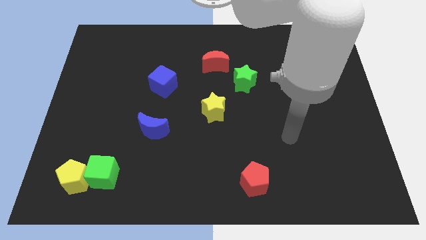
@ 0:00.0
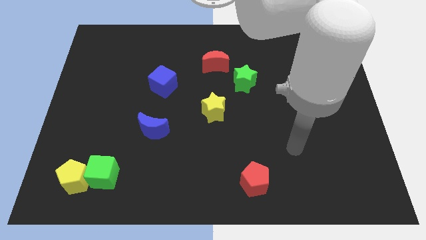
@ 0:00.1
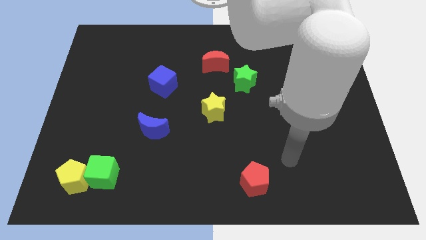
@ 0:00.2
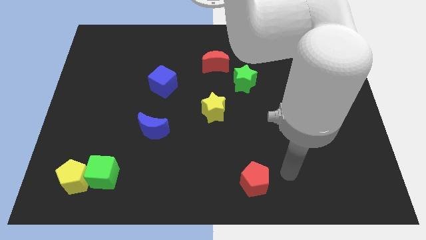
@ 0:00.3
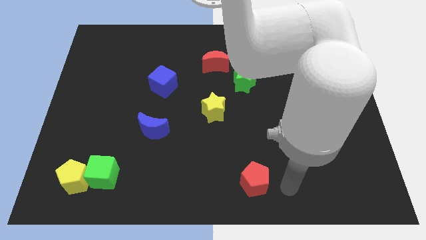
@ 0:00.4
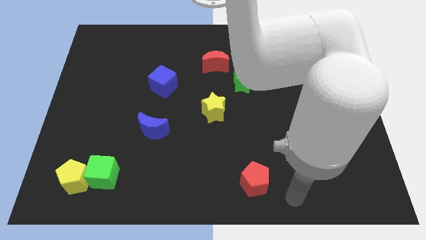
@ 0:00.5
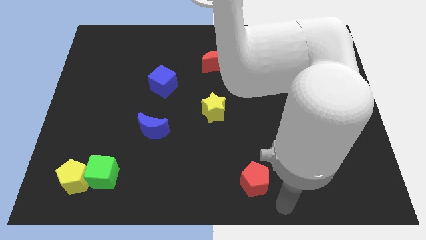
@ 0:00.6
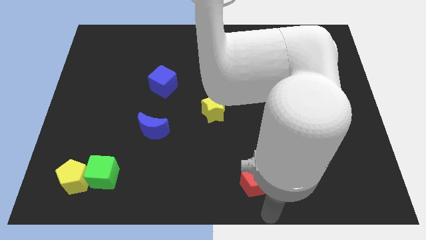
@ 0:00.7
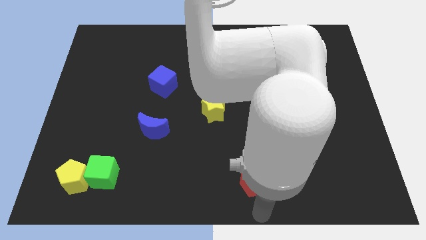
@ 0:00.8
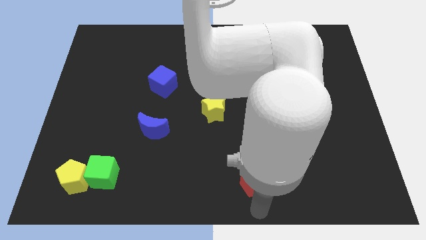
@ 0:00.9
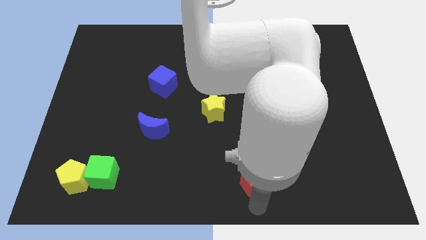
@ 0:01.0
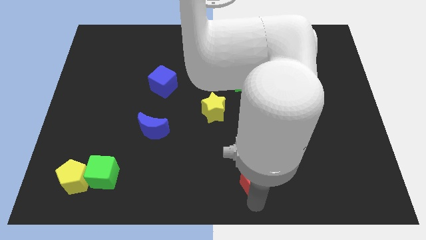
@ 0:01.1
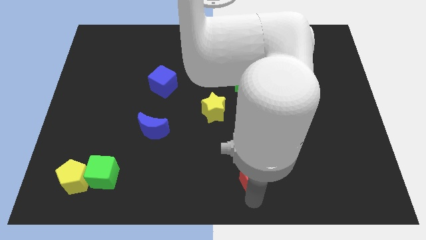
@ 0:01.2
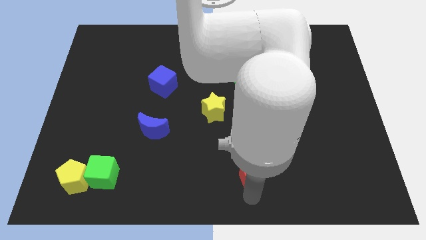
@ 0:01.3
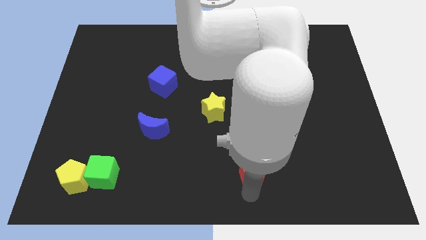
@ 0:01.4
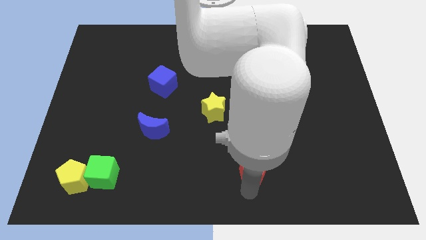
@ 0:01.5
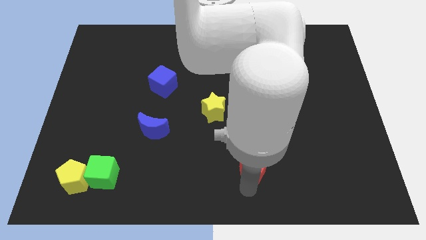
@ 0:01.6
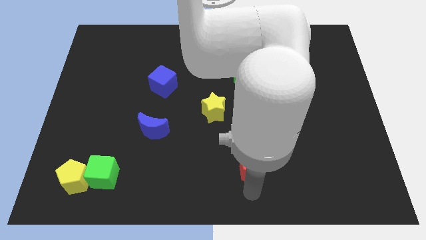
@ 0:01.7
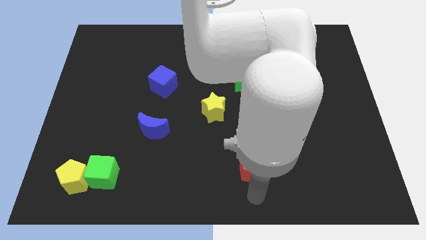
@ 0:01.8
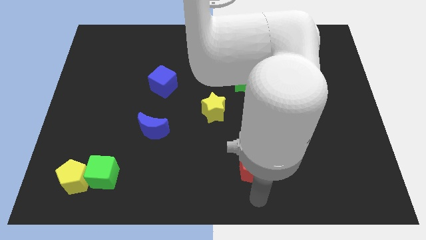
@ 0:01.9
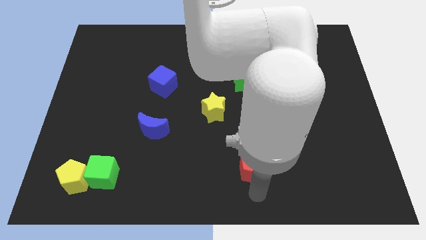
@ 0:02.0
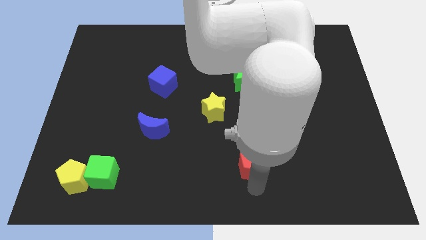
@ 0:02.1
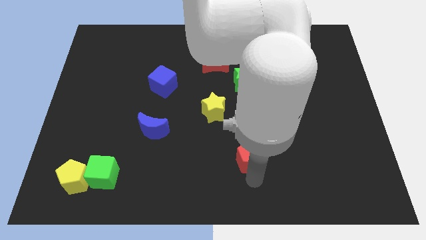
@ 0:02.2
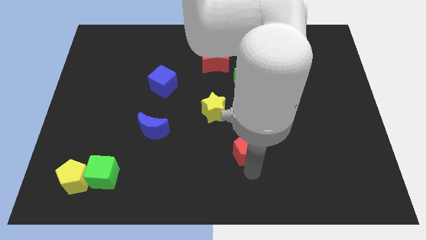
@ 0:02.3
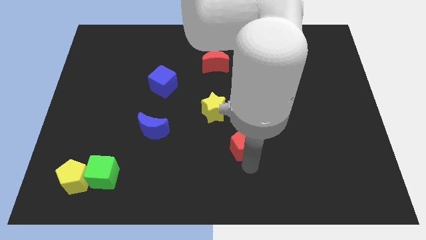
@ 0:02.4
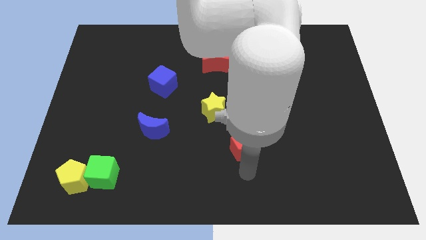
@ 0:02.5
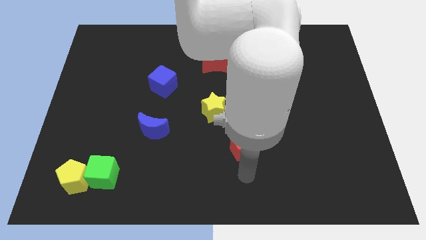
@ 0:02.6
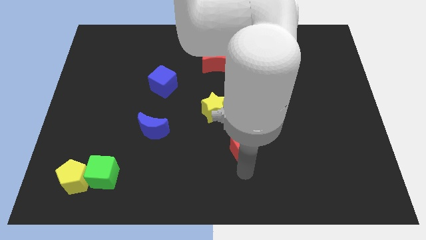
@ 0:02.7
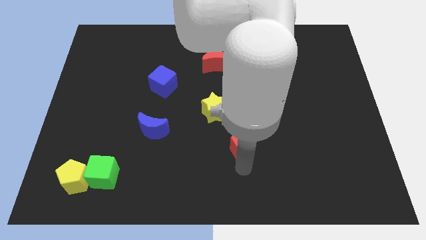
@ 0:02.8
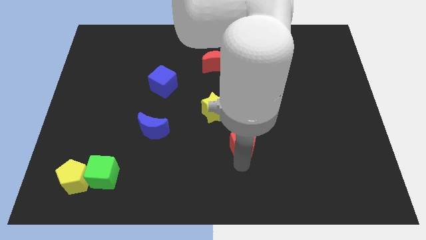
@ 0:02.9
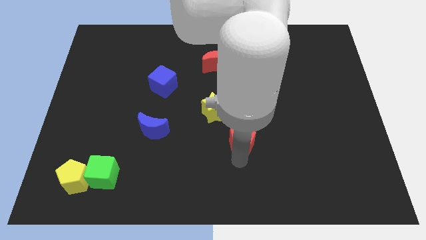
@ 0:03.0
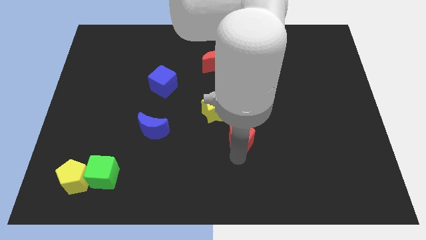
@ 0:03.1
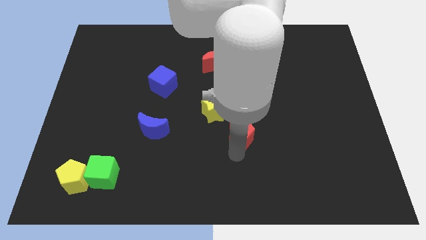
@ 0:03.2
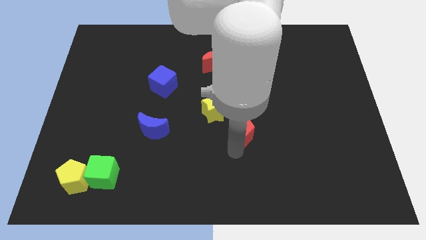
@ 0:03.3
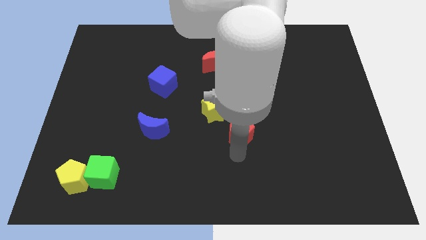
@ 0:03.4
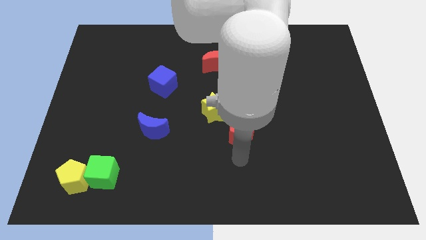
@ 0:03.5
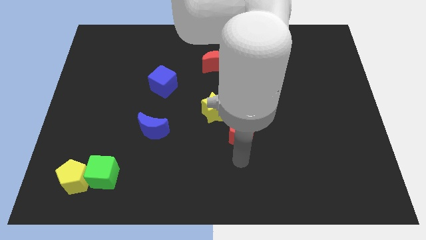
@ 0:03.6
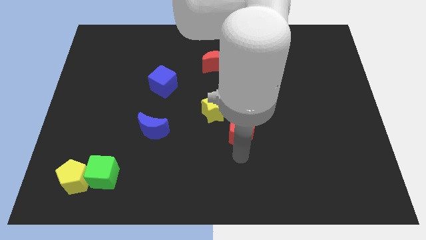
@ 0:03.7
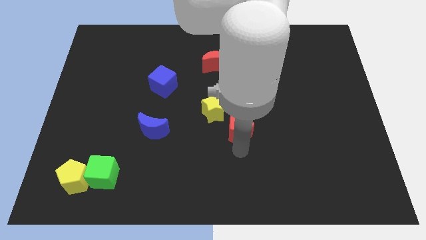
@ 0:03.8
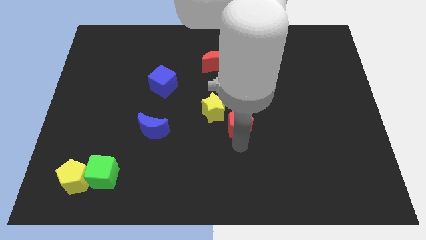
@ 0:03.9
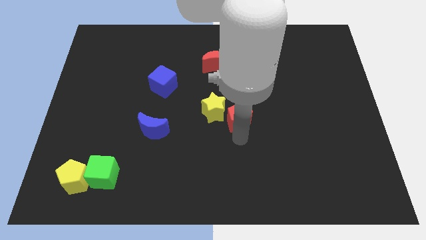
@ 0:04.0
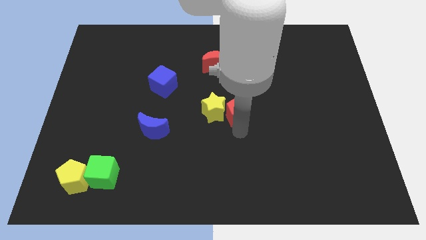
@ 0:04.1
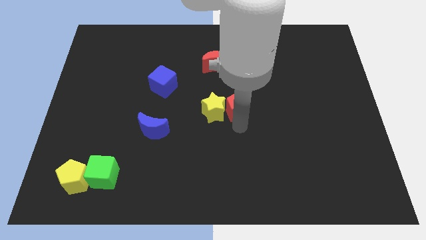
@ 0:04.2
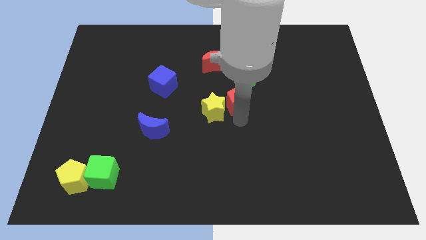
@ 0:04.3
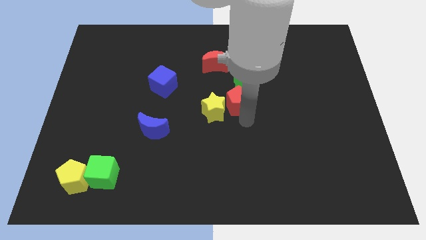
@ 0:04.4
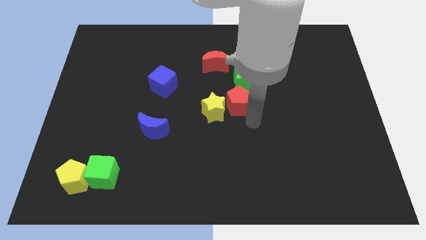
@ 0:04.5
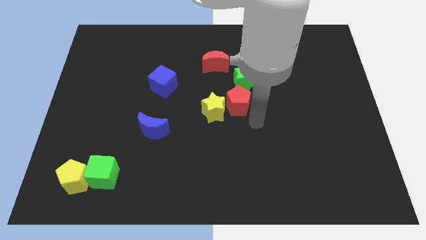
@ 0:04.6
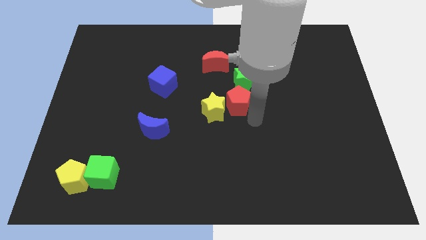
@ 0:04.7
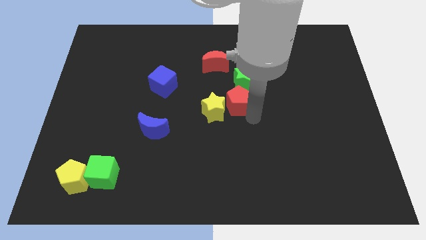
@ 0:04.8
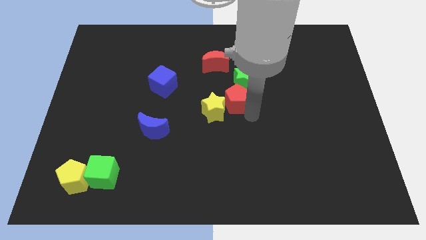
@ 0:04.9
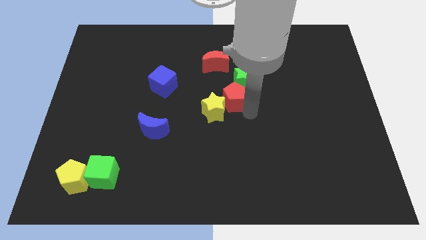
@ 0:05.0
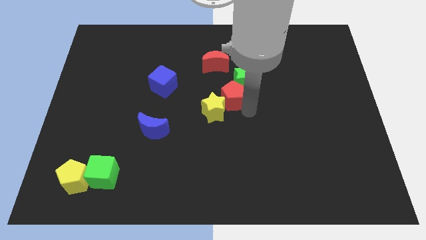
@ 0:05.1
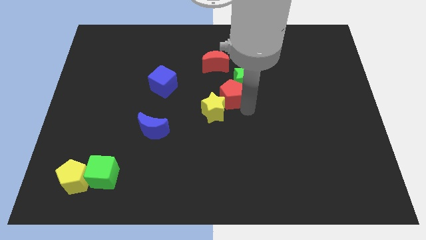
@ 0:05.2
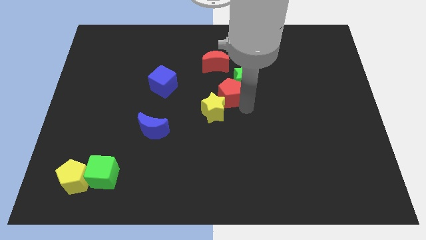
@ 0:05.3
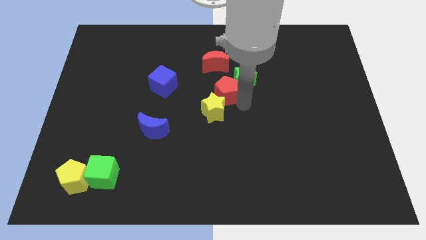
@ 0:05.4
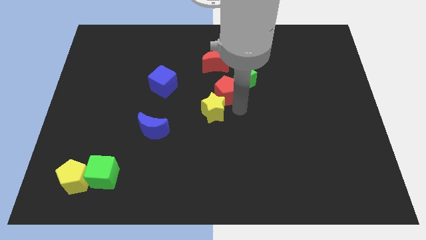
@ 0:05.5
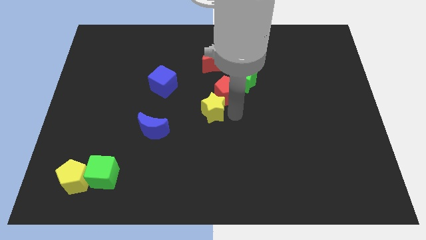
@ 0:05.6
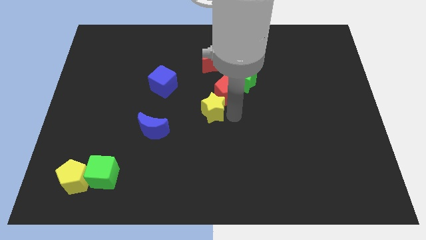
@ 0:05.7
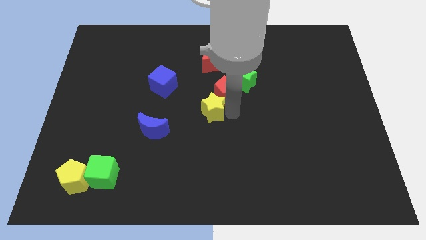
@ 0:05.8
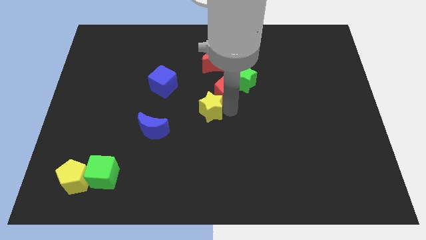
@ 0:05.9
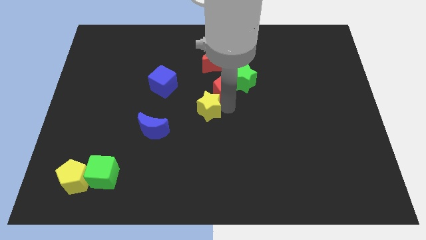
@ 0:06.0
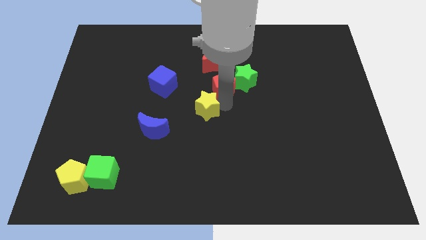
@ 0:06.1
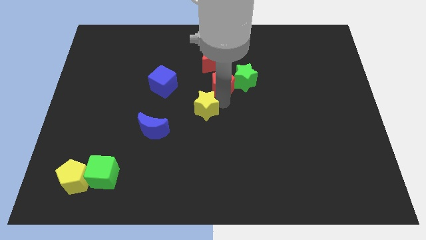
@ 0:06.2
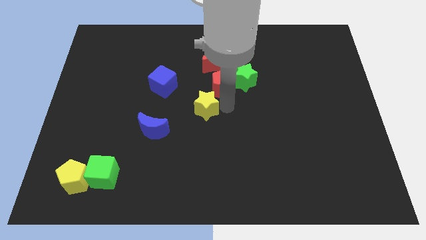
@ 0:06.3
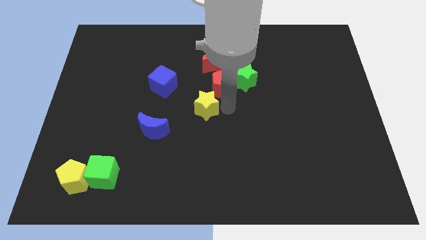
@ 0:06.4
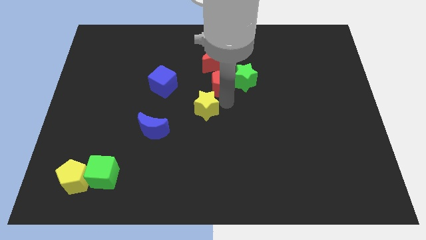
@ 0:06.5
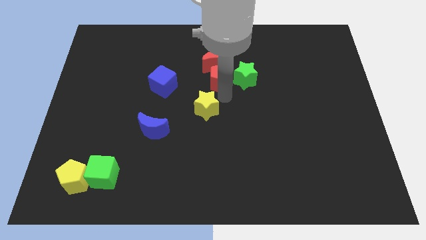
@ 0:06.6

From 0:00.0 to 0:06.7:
put the red pentagon towards the red moon

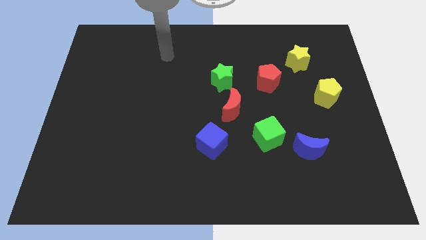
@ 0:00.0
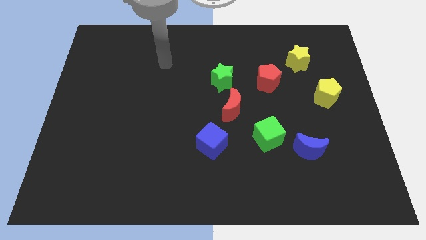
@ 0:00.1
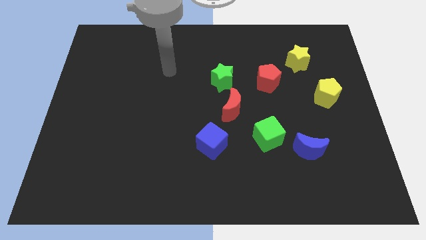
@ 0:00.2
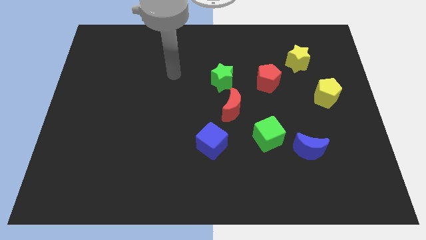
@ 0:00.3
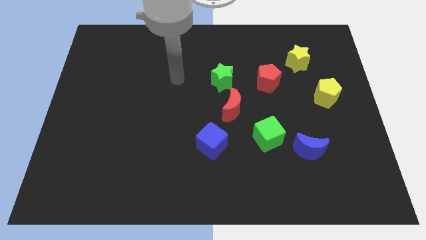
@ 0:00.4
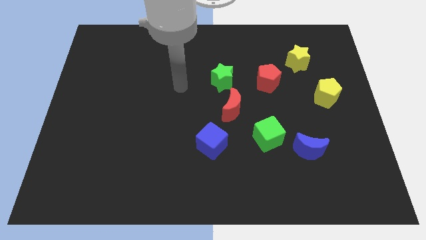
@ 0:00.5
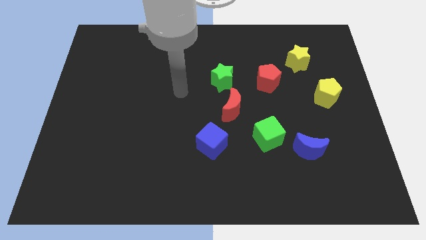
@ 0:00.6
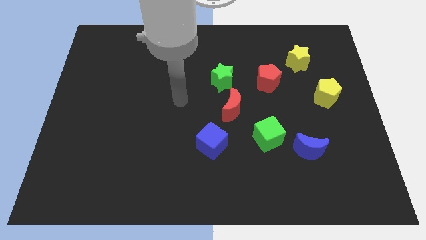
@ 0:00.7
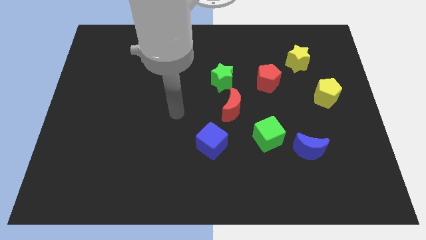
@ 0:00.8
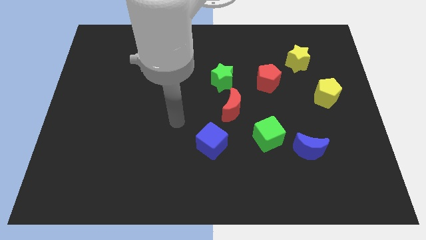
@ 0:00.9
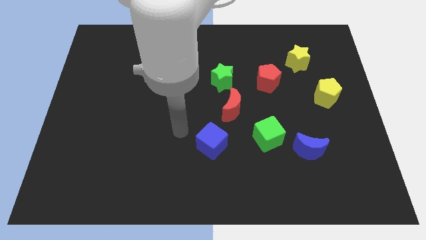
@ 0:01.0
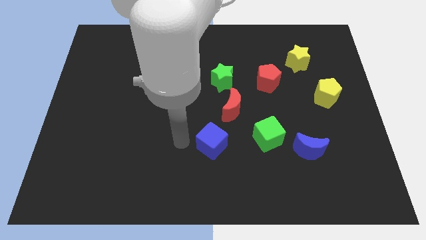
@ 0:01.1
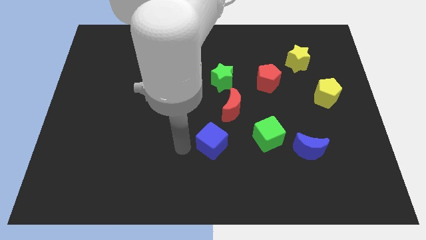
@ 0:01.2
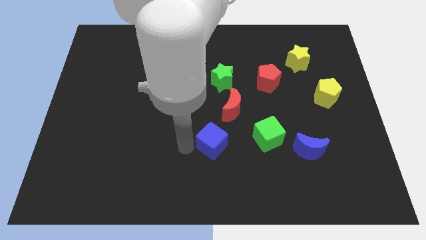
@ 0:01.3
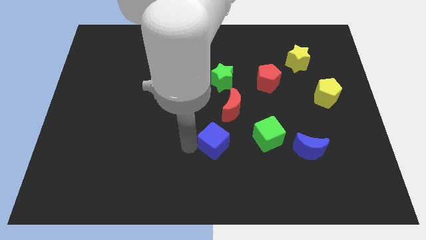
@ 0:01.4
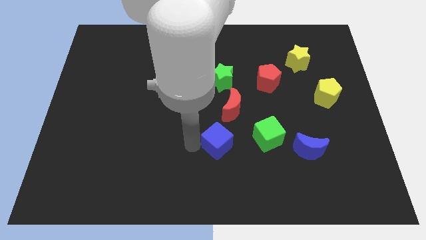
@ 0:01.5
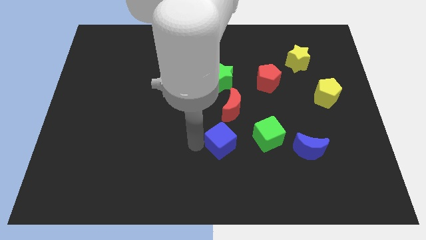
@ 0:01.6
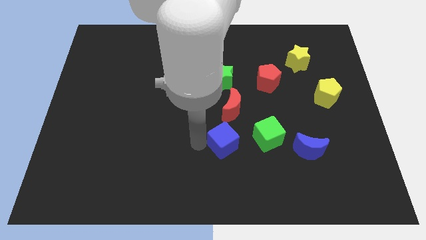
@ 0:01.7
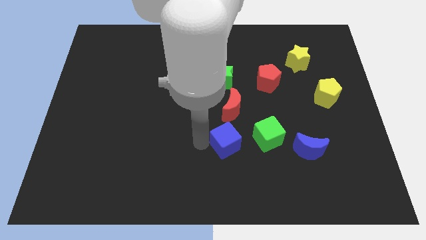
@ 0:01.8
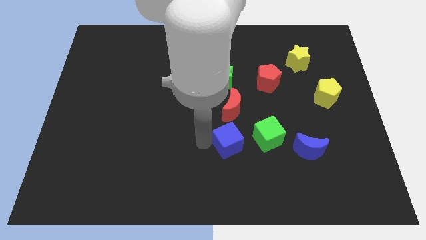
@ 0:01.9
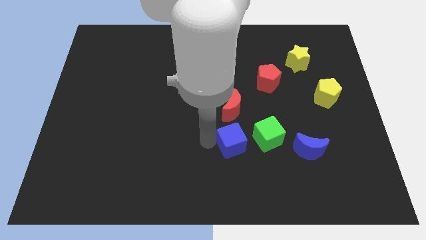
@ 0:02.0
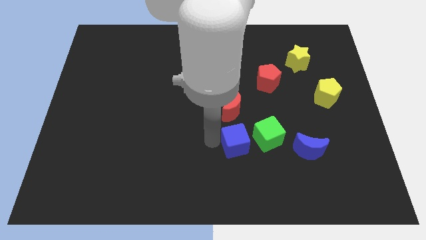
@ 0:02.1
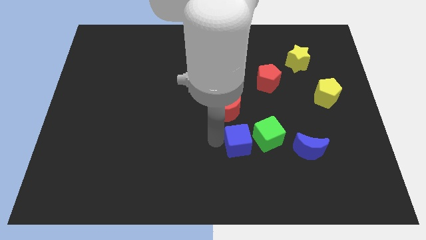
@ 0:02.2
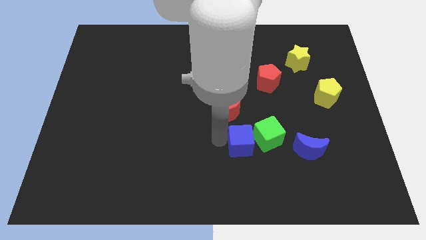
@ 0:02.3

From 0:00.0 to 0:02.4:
move the blue cube to the green cube
